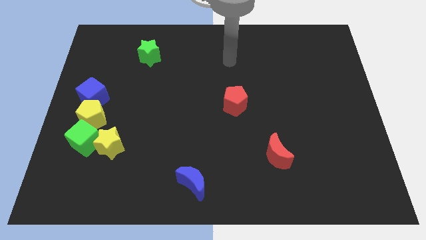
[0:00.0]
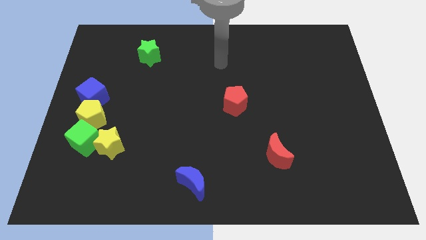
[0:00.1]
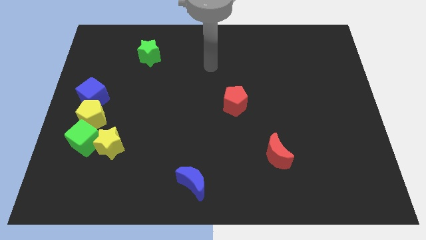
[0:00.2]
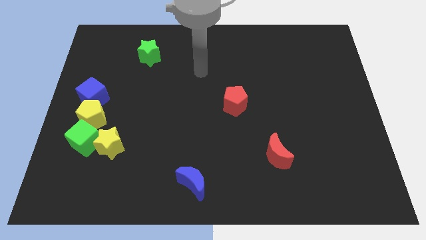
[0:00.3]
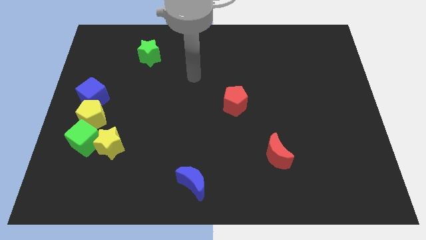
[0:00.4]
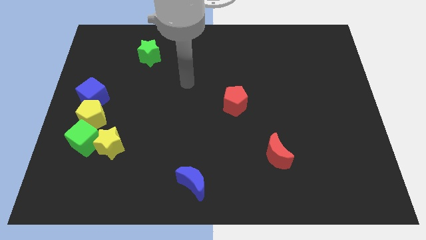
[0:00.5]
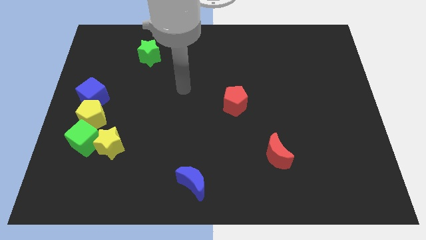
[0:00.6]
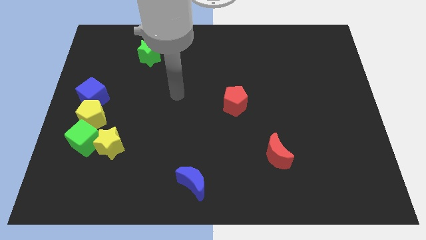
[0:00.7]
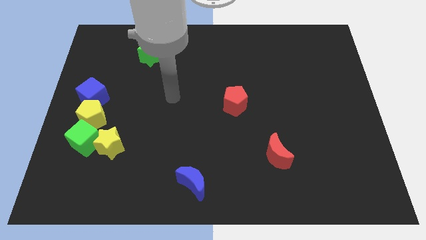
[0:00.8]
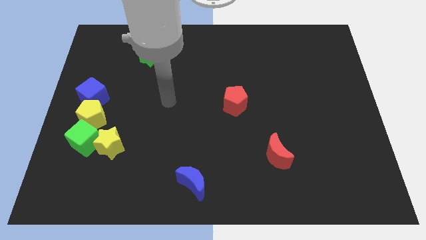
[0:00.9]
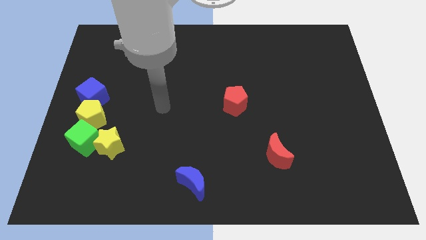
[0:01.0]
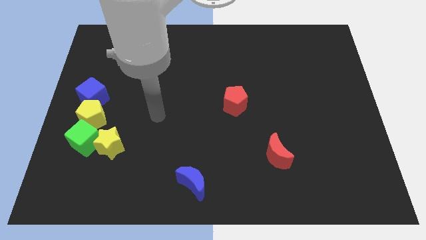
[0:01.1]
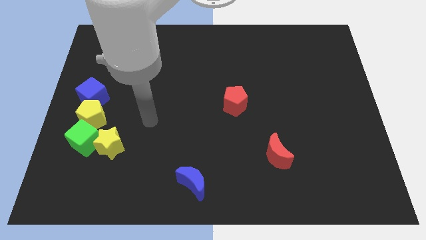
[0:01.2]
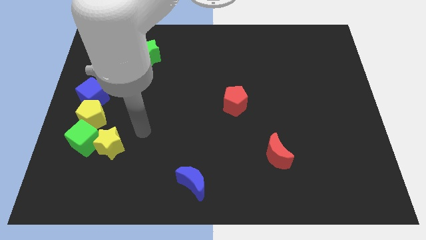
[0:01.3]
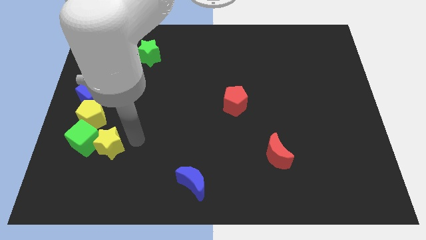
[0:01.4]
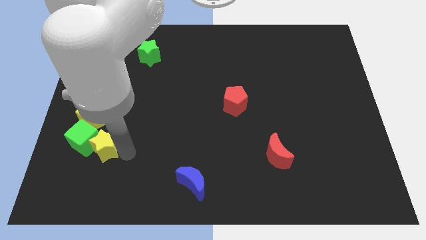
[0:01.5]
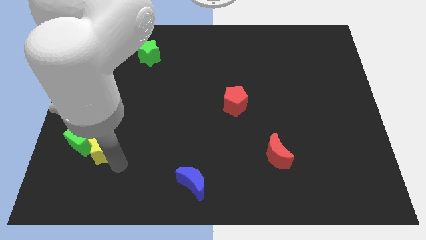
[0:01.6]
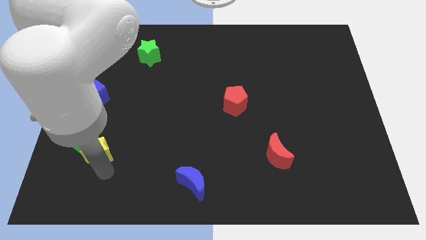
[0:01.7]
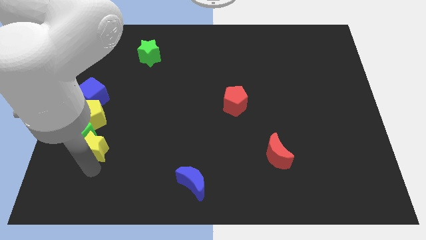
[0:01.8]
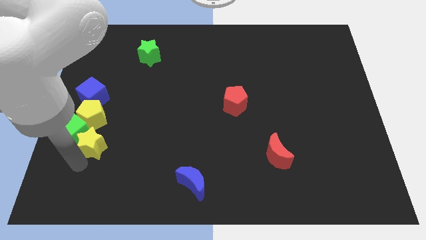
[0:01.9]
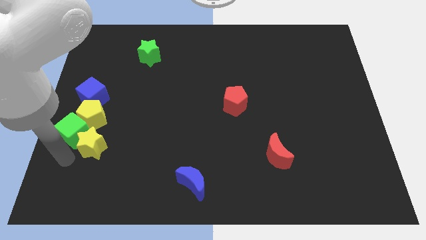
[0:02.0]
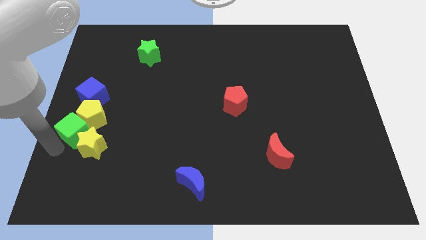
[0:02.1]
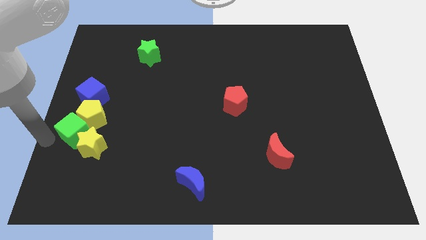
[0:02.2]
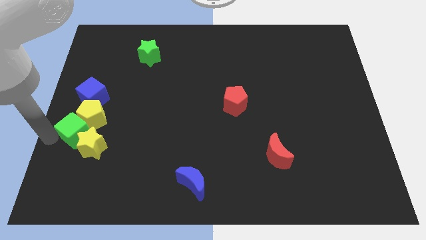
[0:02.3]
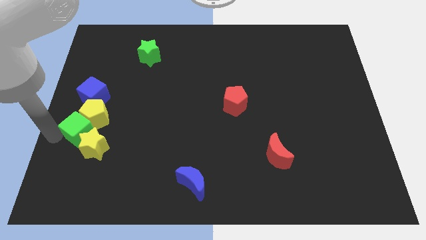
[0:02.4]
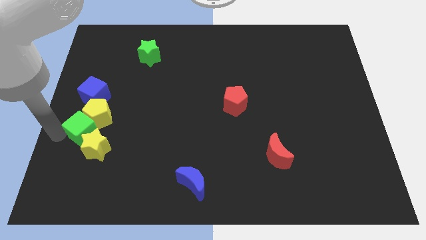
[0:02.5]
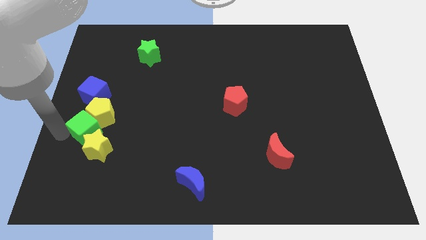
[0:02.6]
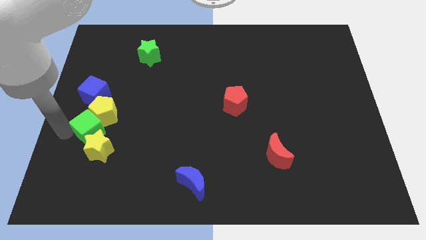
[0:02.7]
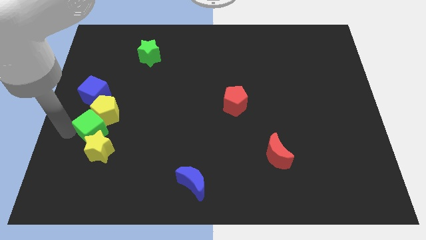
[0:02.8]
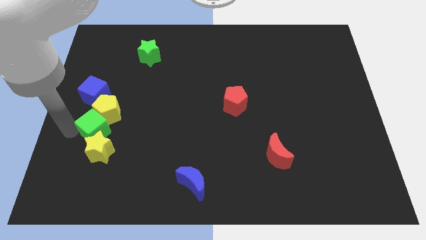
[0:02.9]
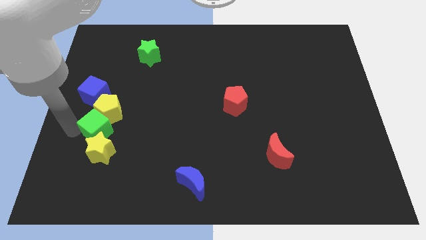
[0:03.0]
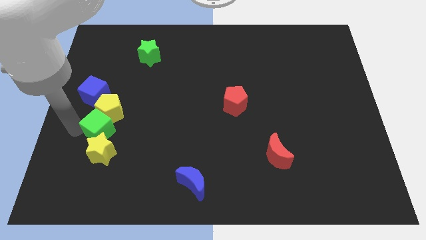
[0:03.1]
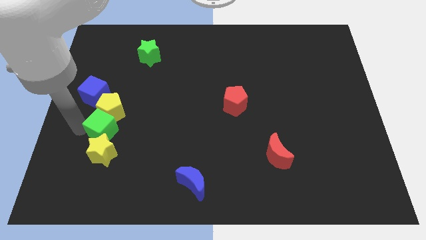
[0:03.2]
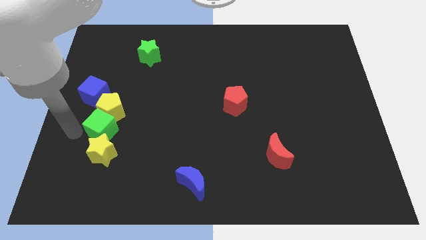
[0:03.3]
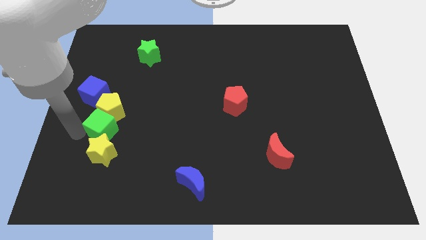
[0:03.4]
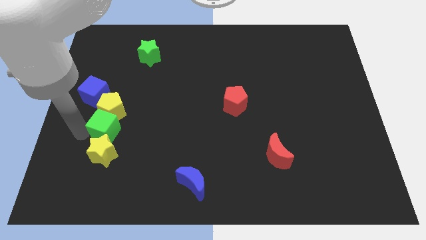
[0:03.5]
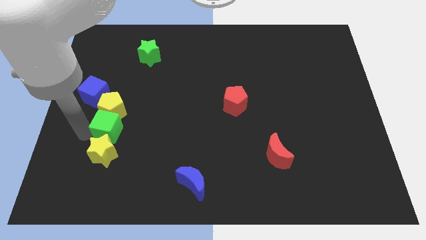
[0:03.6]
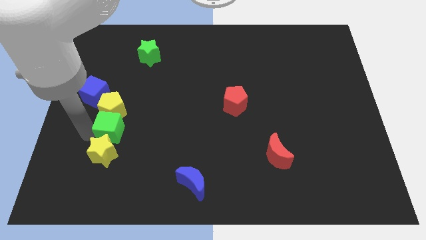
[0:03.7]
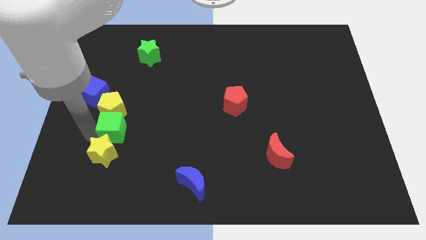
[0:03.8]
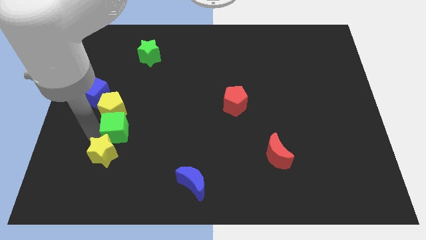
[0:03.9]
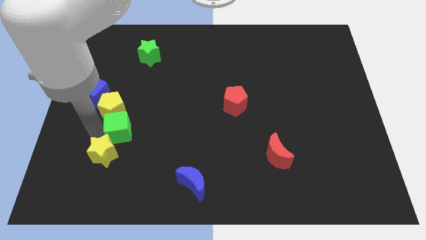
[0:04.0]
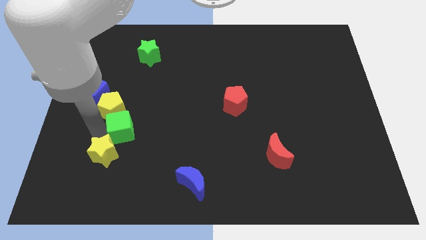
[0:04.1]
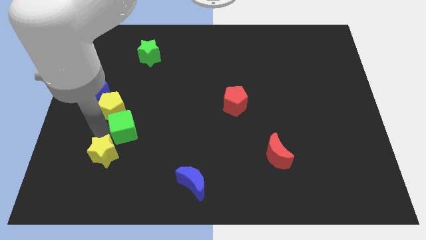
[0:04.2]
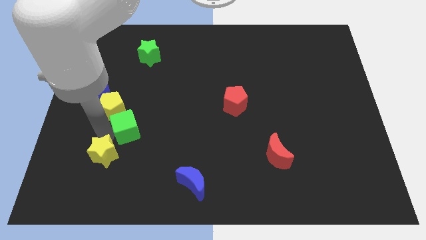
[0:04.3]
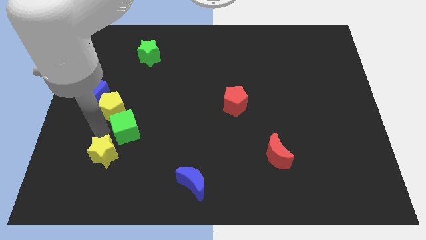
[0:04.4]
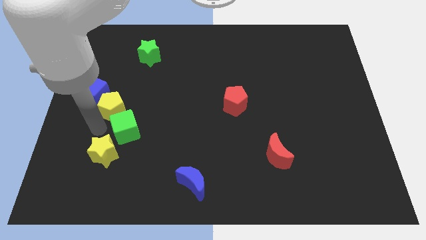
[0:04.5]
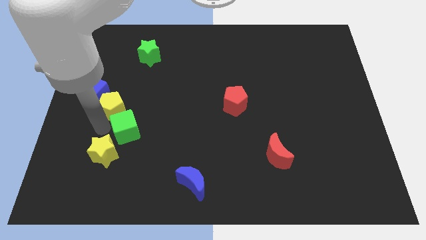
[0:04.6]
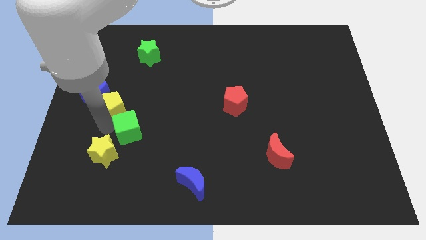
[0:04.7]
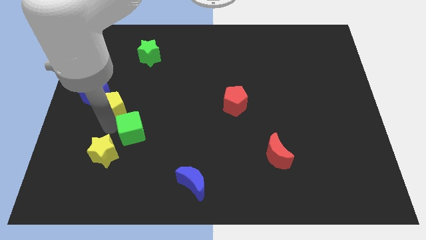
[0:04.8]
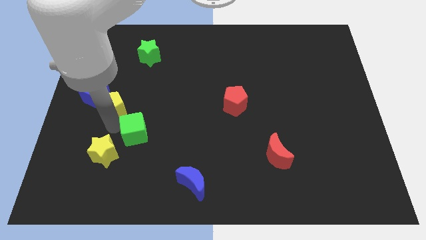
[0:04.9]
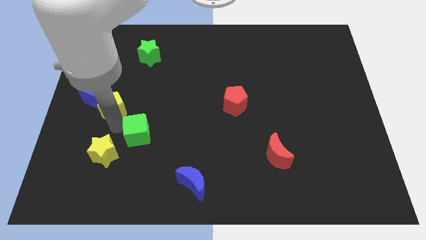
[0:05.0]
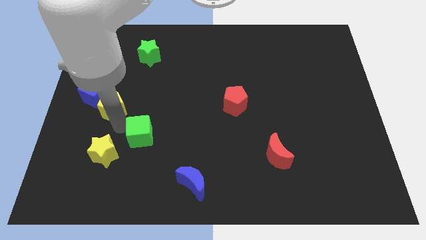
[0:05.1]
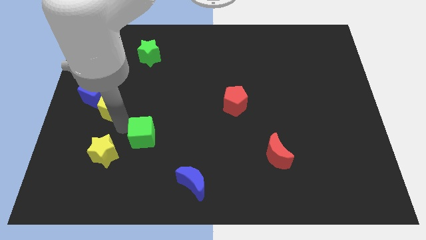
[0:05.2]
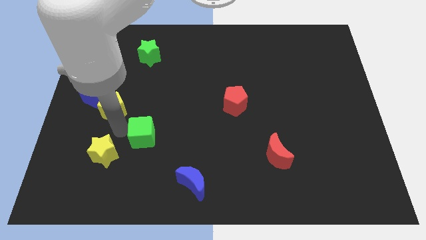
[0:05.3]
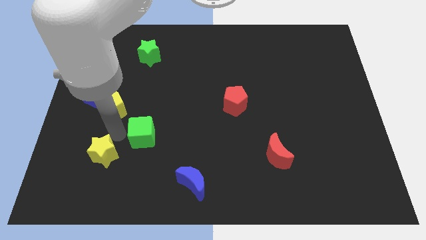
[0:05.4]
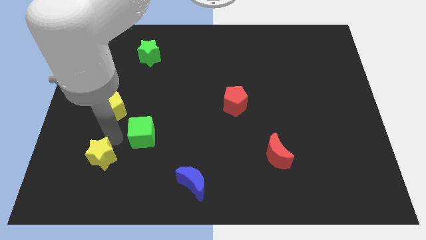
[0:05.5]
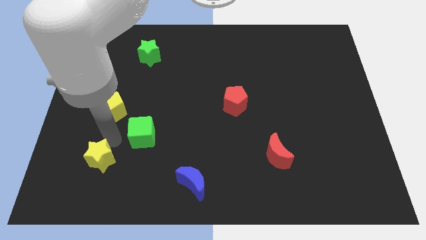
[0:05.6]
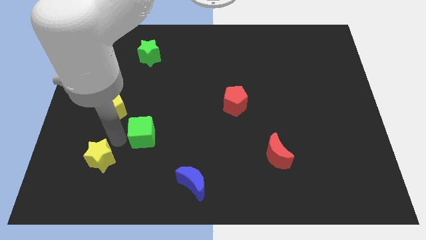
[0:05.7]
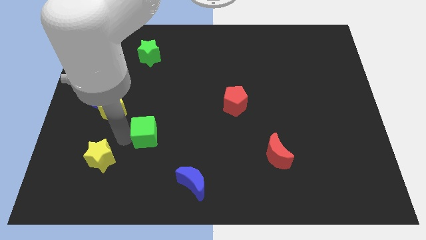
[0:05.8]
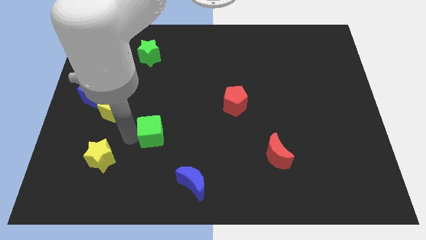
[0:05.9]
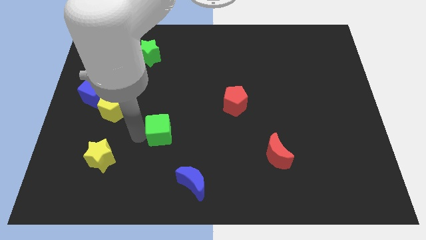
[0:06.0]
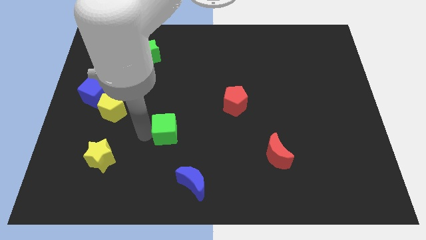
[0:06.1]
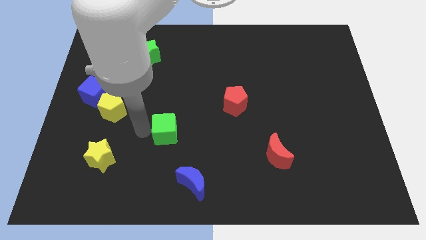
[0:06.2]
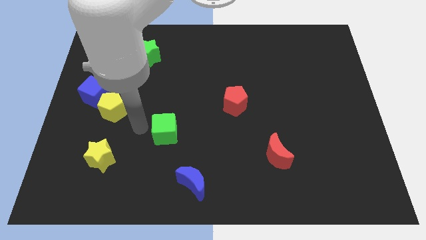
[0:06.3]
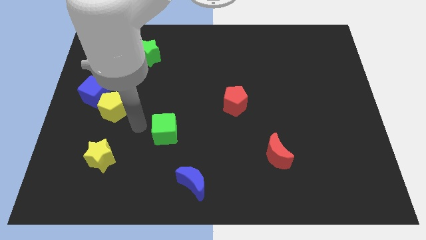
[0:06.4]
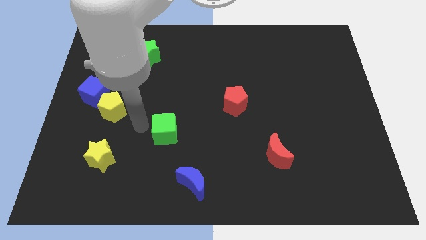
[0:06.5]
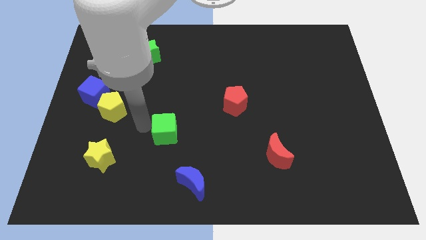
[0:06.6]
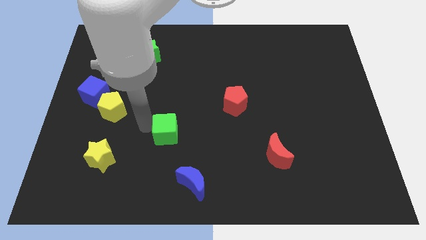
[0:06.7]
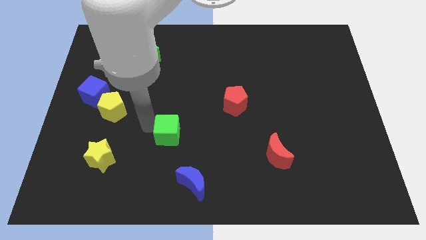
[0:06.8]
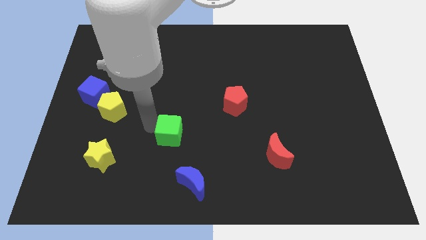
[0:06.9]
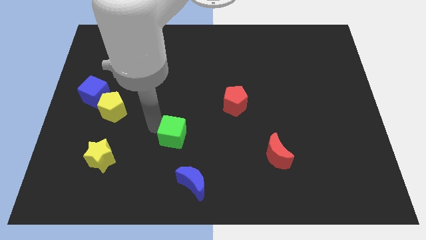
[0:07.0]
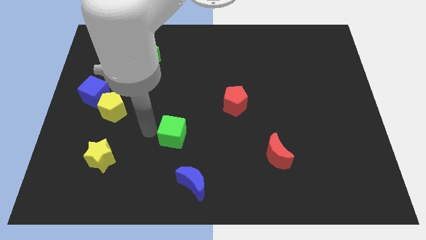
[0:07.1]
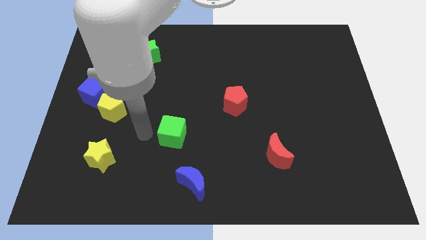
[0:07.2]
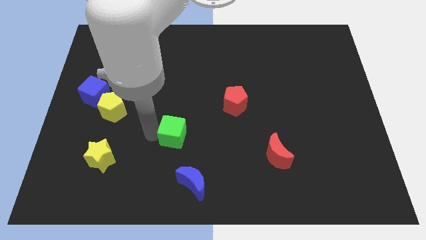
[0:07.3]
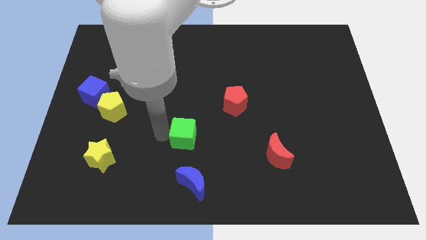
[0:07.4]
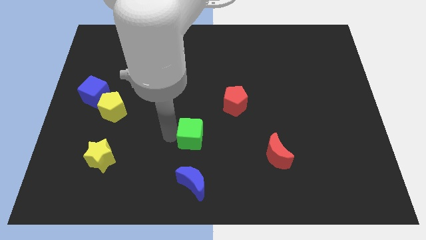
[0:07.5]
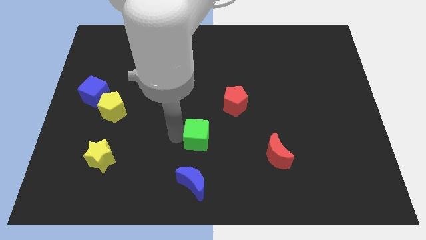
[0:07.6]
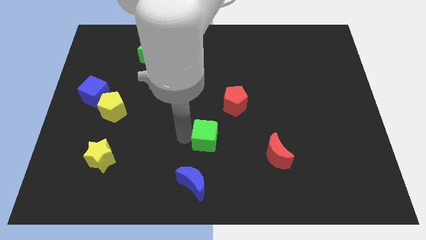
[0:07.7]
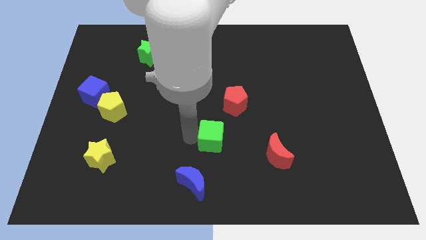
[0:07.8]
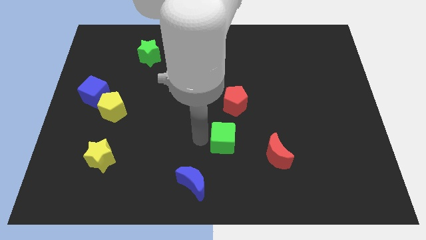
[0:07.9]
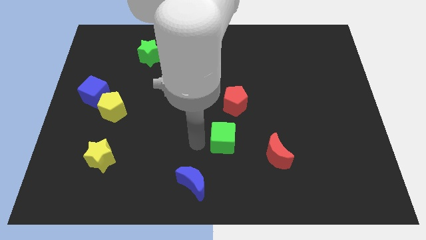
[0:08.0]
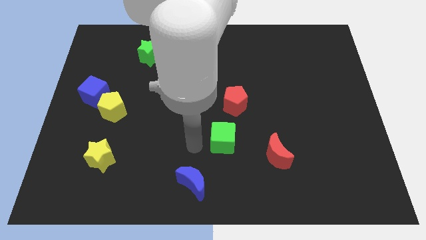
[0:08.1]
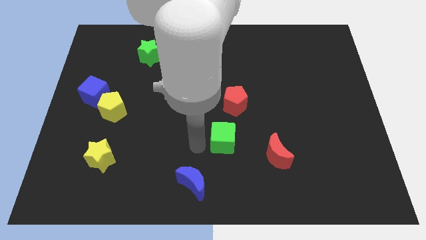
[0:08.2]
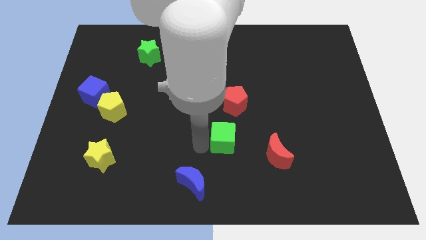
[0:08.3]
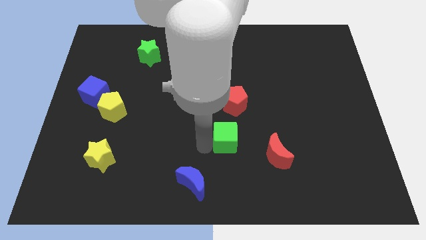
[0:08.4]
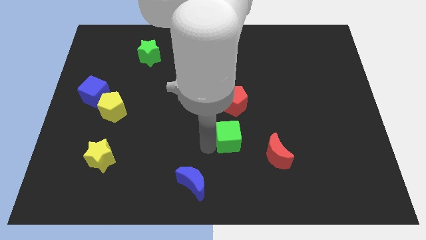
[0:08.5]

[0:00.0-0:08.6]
put the green cube to the top left side of the red moon
